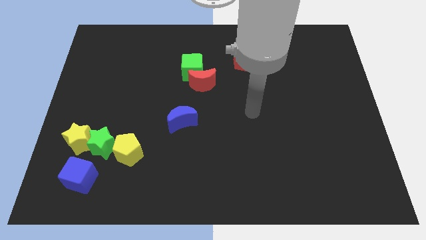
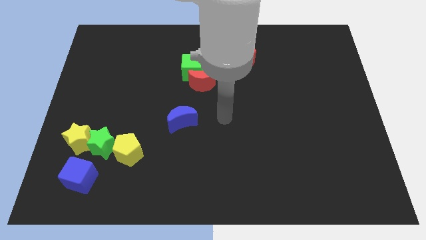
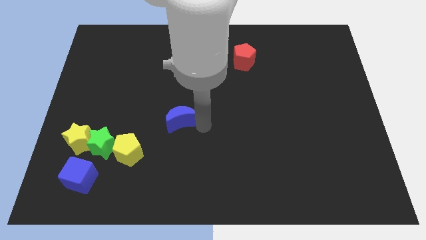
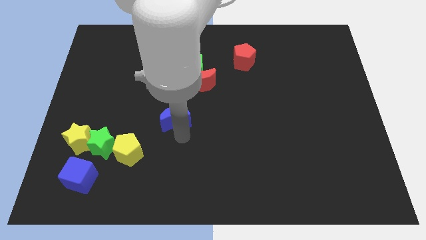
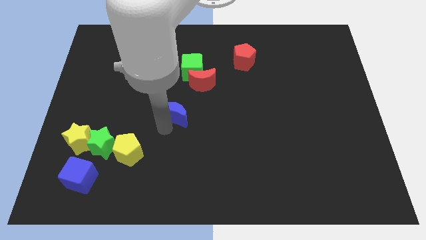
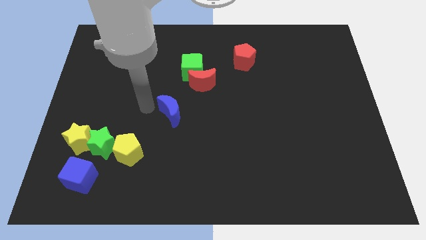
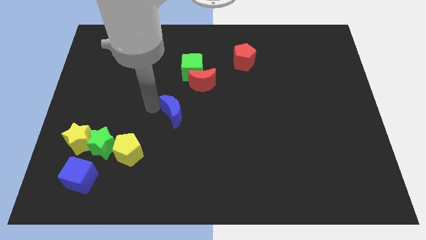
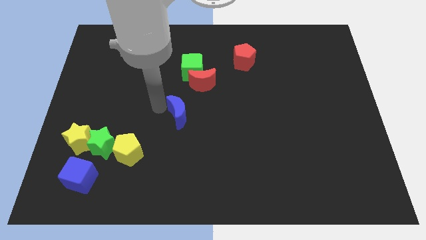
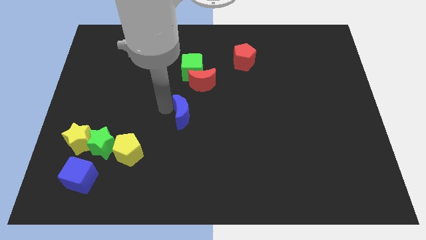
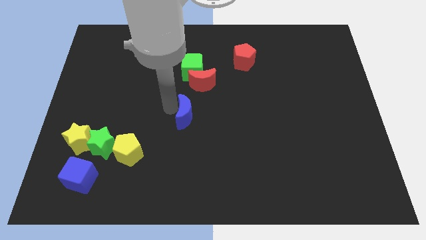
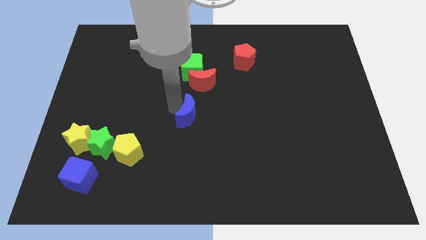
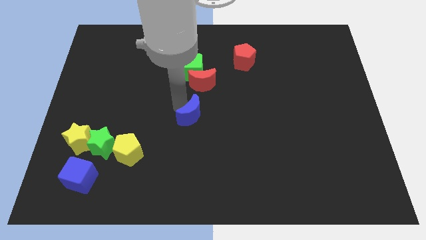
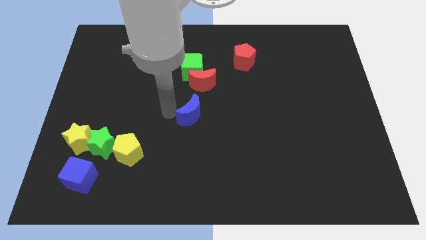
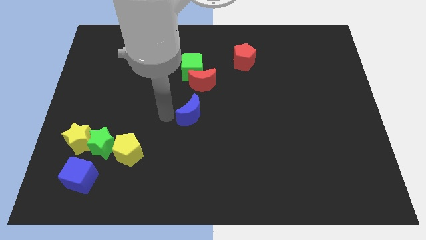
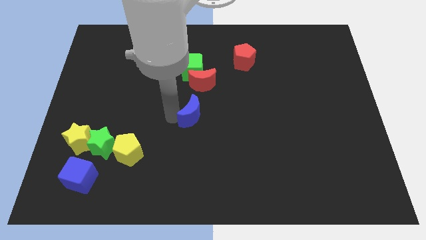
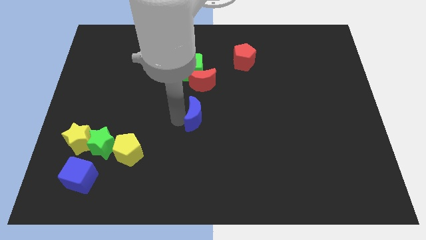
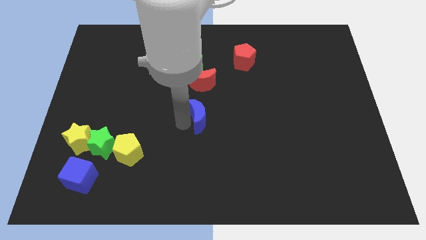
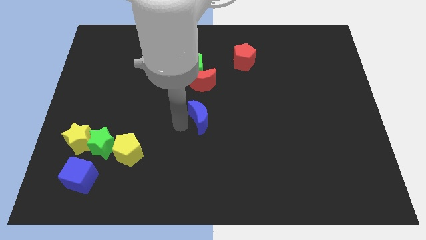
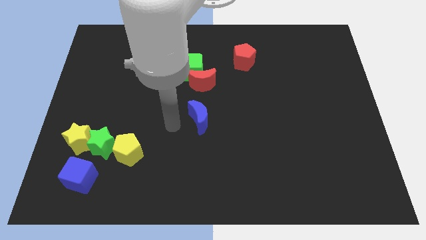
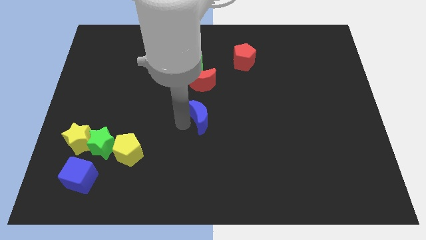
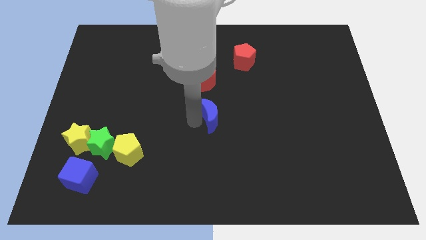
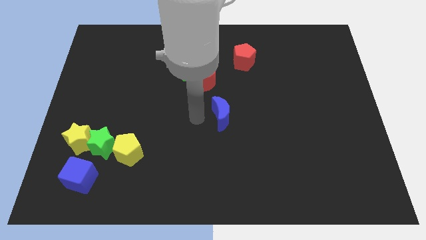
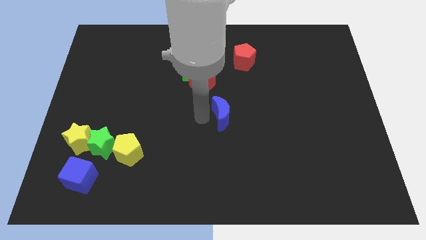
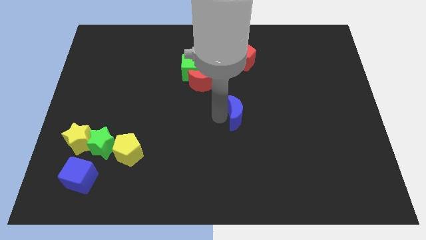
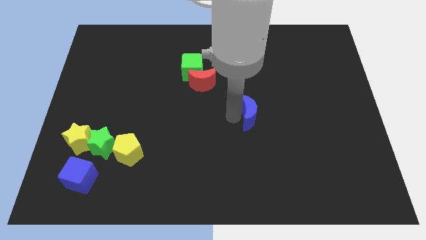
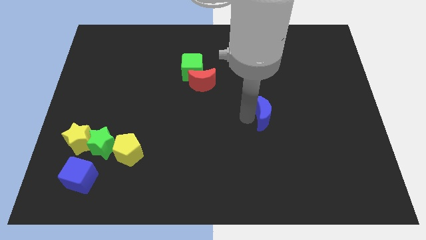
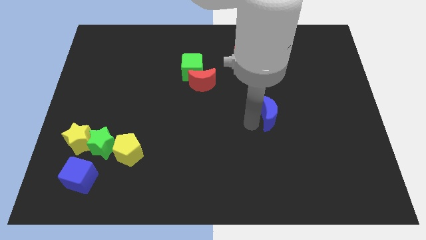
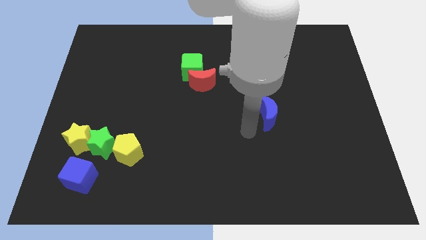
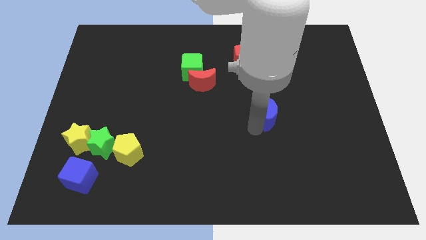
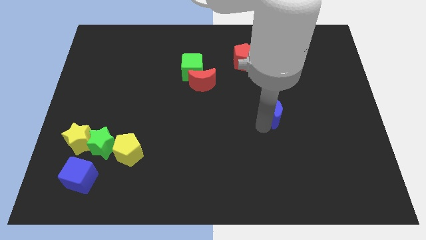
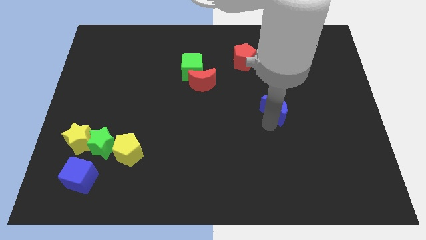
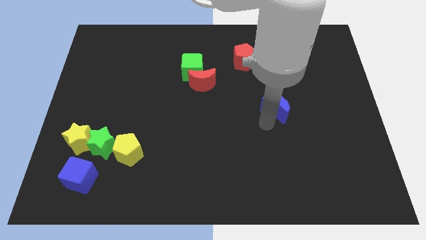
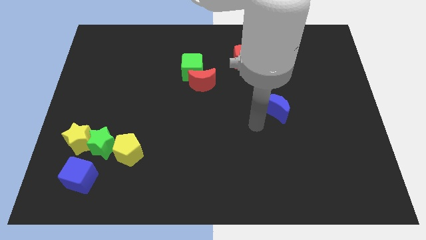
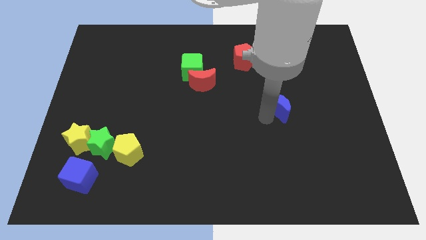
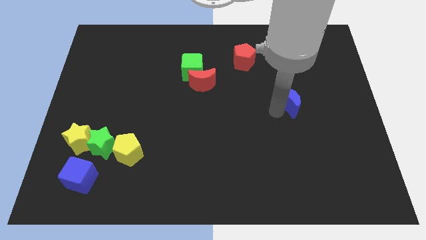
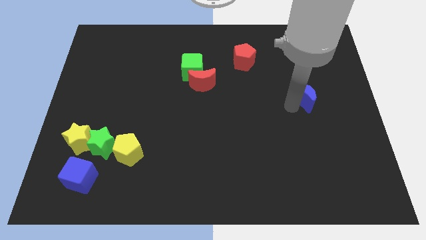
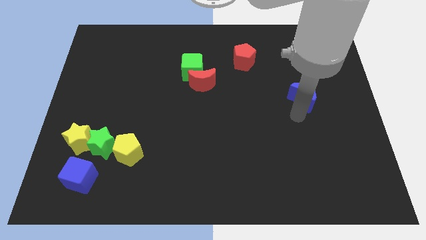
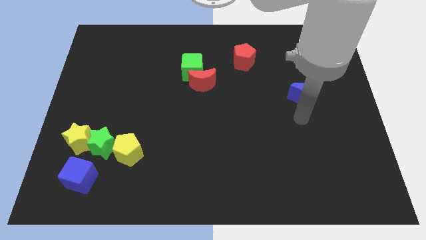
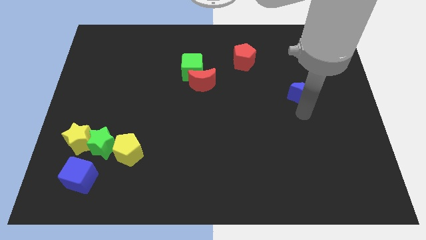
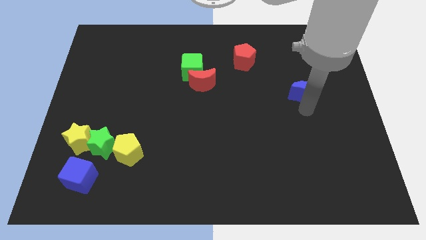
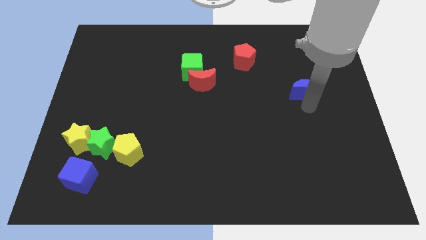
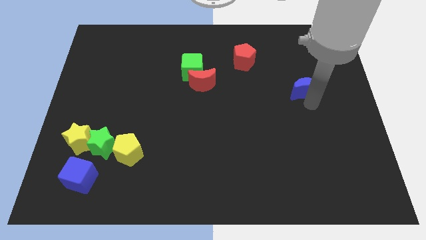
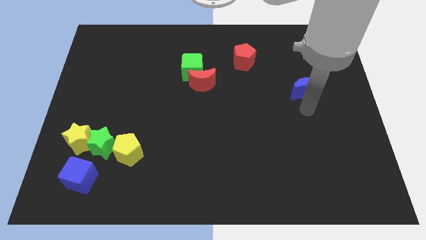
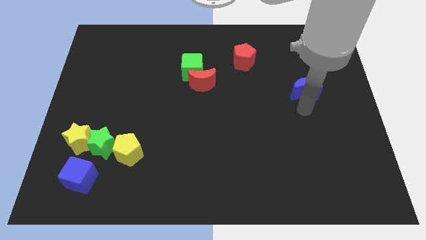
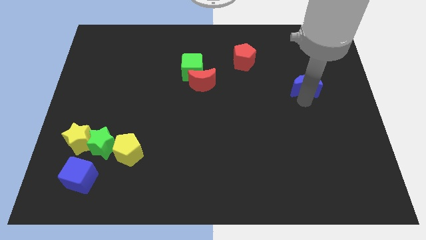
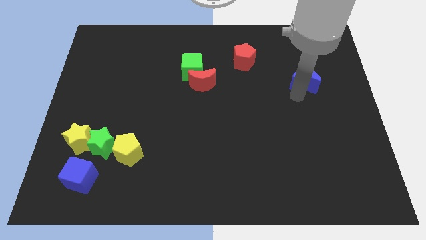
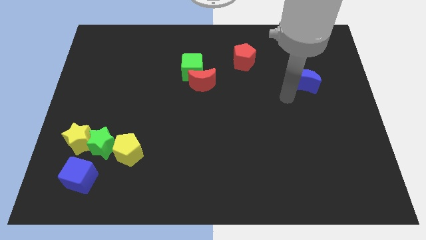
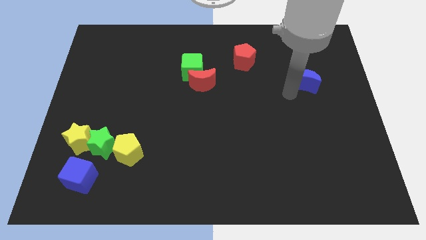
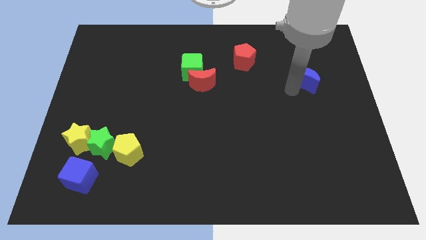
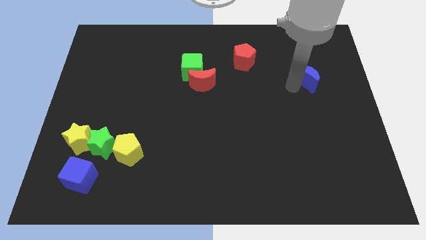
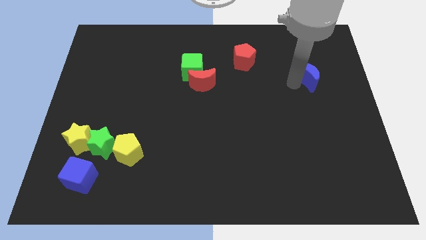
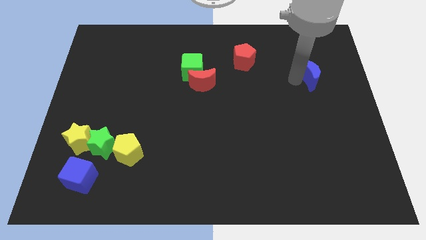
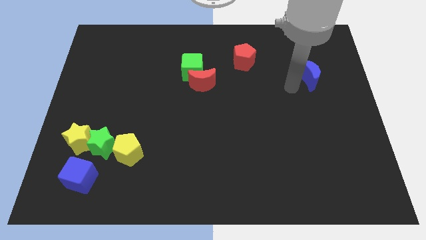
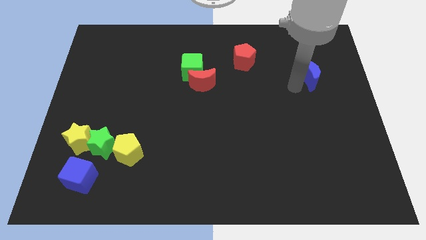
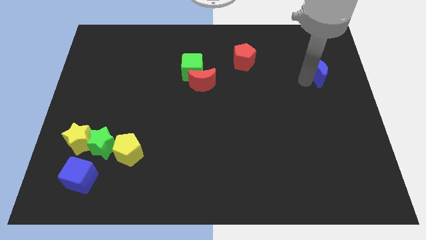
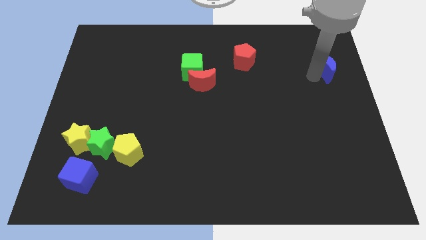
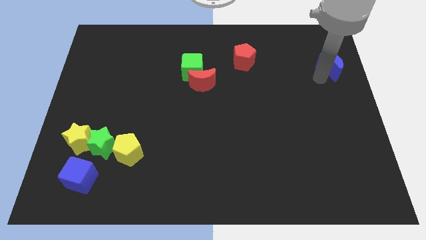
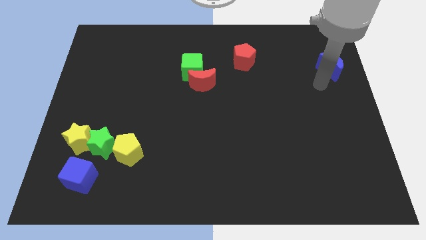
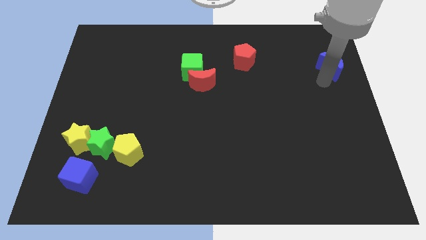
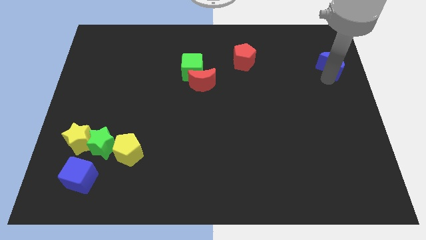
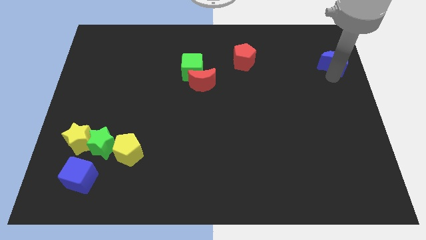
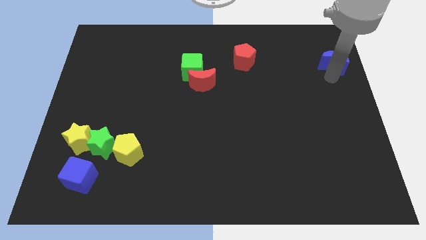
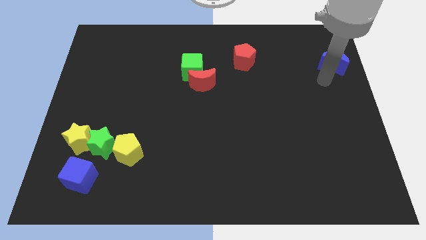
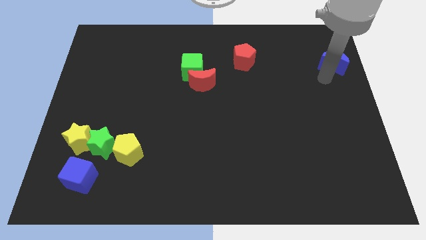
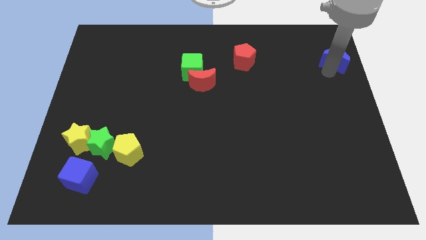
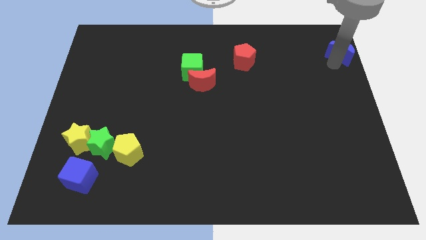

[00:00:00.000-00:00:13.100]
slide the blue moon to the top right of the board

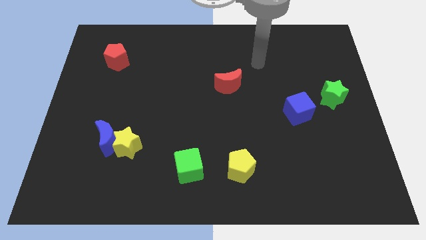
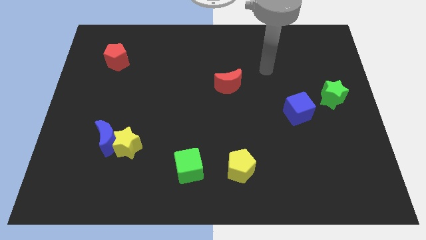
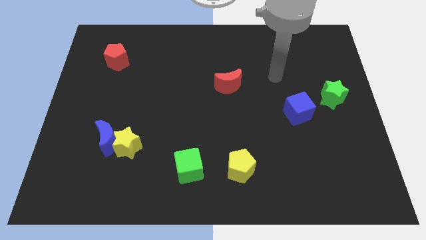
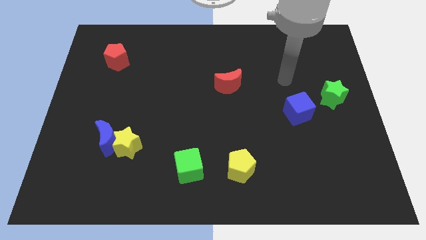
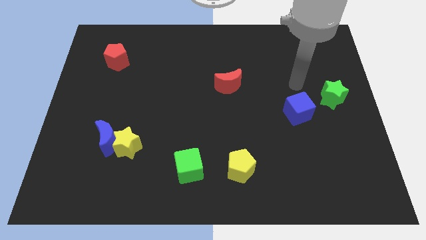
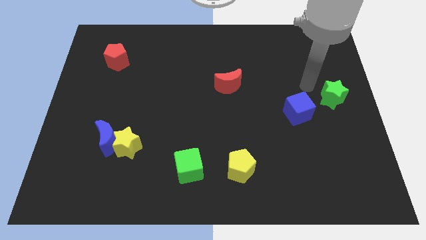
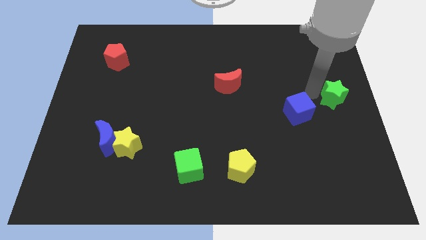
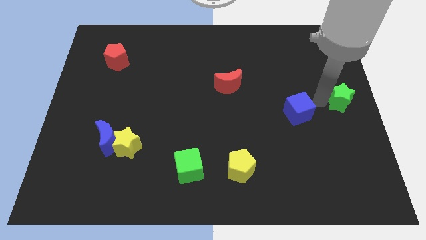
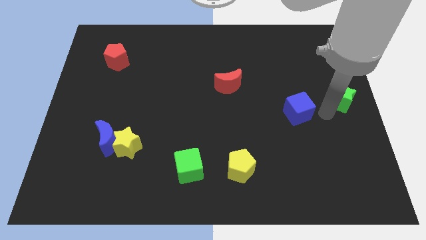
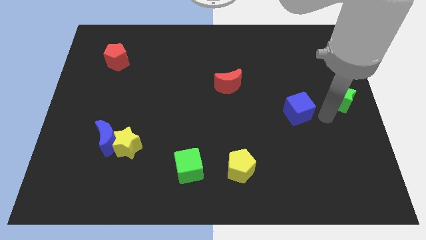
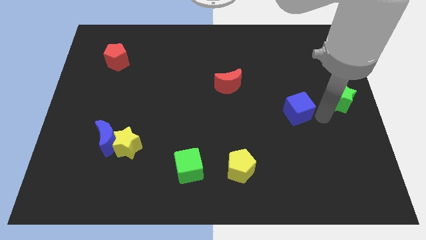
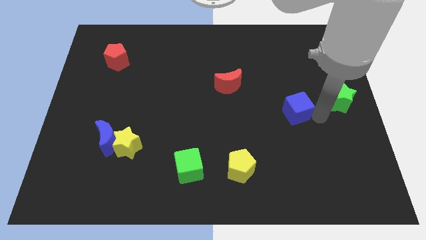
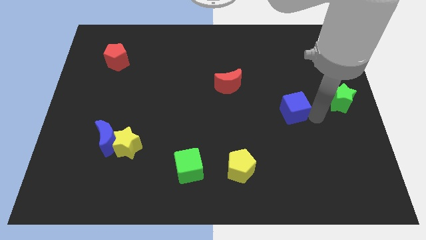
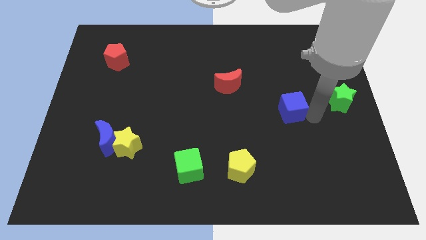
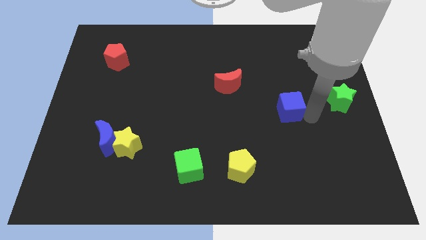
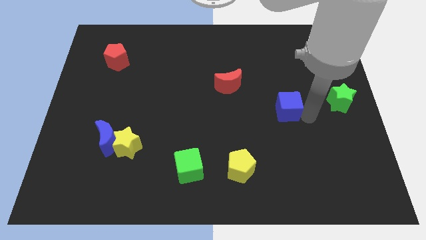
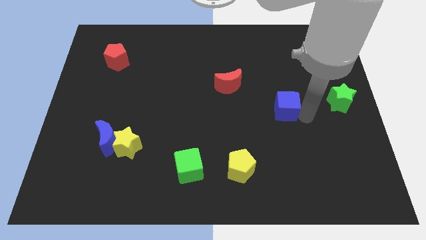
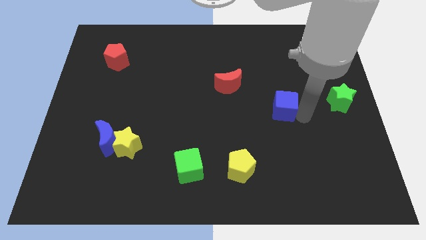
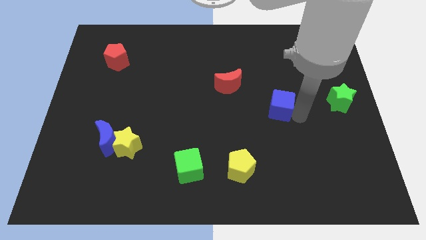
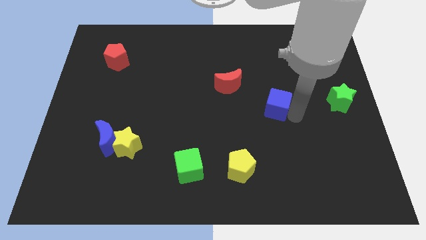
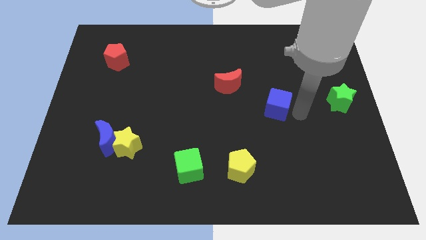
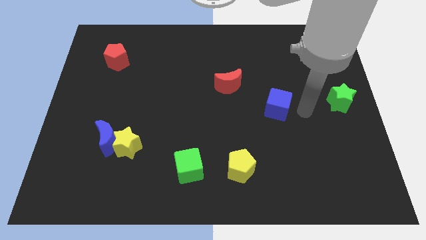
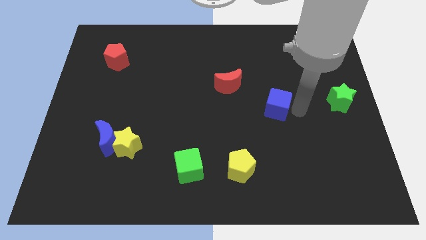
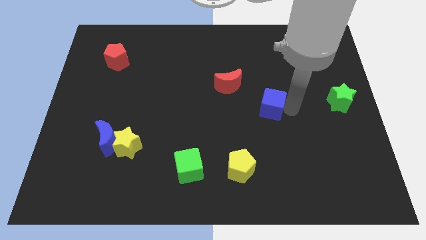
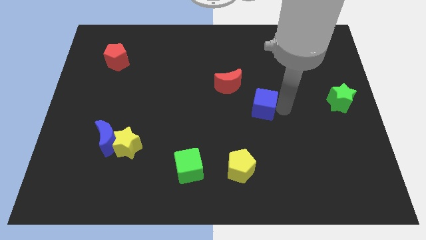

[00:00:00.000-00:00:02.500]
put the blue cube to the middle
